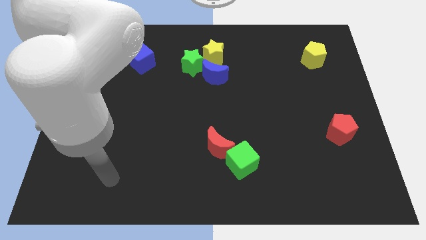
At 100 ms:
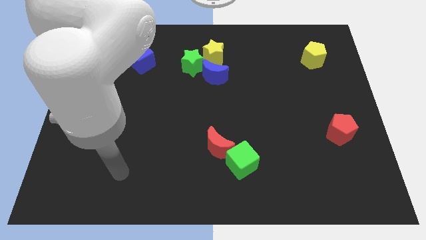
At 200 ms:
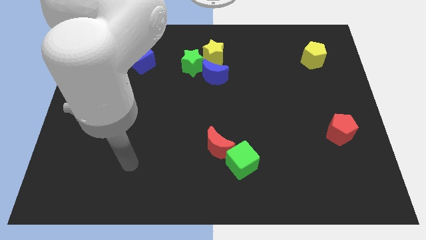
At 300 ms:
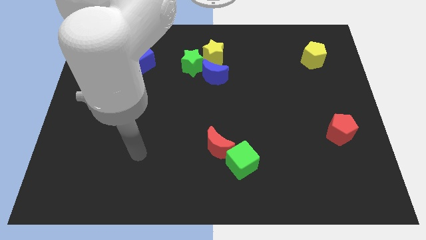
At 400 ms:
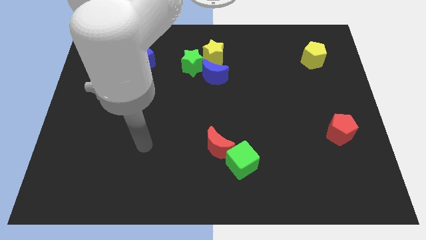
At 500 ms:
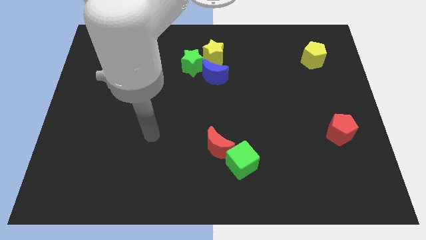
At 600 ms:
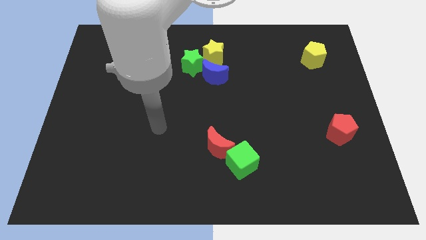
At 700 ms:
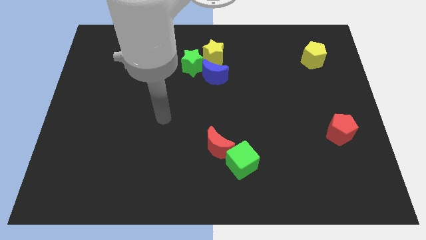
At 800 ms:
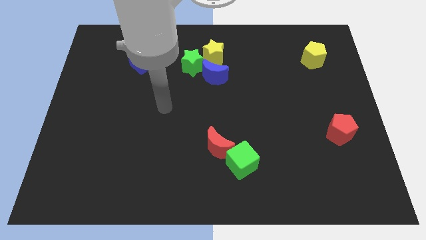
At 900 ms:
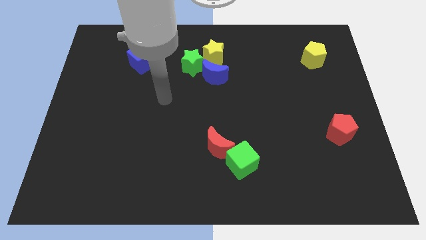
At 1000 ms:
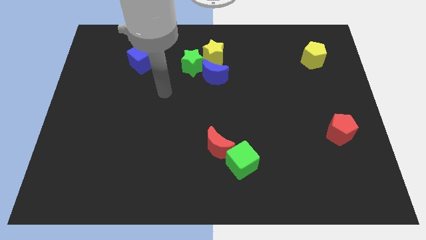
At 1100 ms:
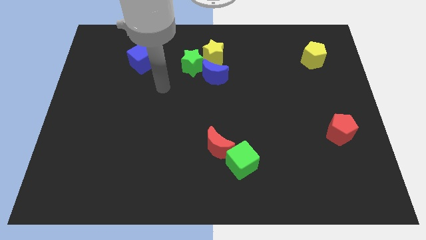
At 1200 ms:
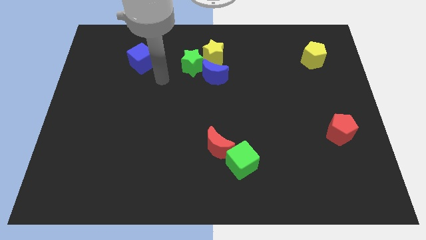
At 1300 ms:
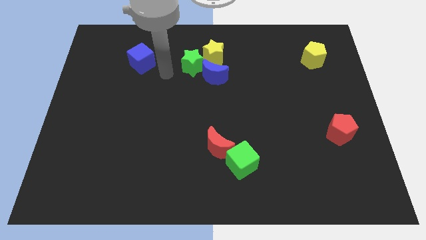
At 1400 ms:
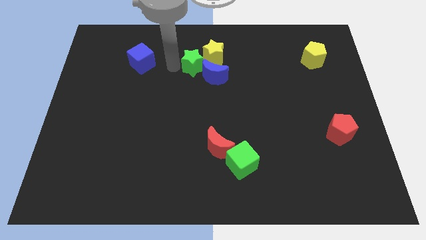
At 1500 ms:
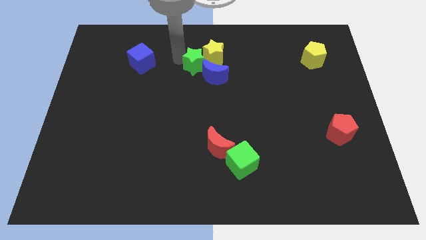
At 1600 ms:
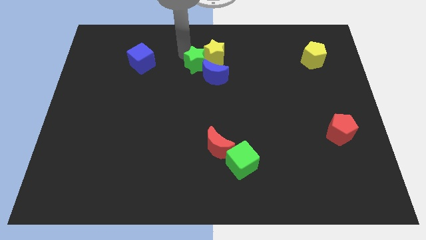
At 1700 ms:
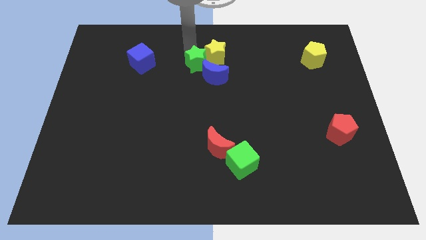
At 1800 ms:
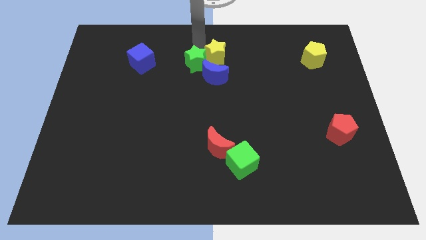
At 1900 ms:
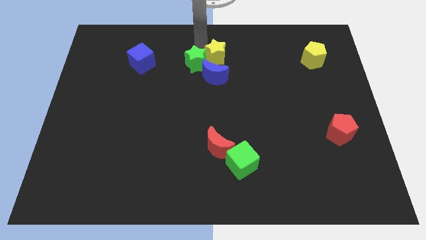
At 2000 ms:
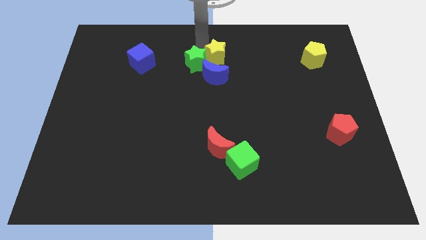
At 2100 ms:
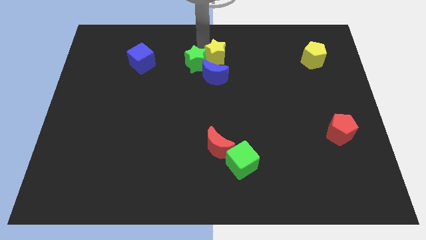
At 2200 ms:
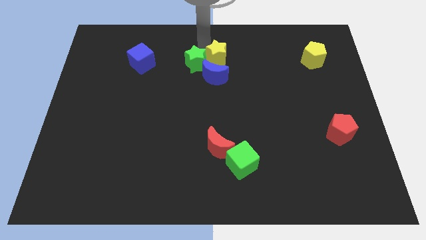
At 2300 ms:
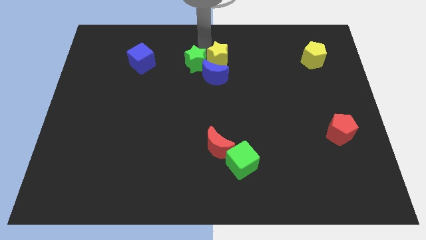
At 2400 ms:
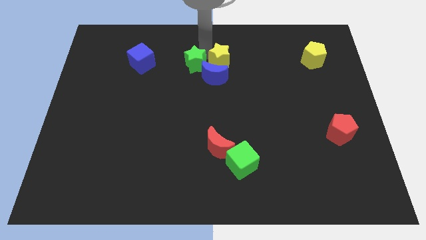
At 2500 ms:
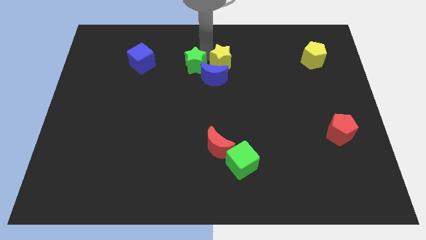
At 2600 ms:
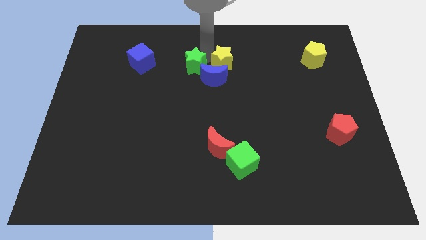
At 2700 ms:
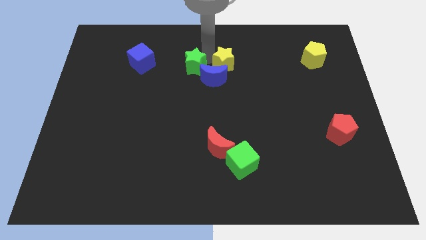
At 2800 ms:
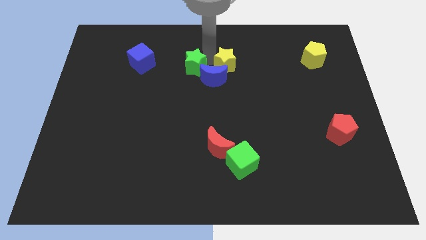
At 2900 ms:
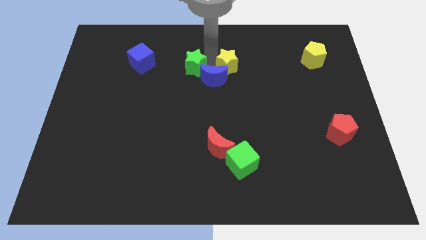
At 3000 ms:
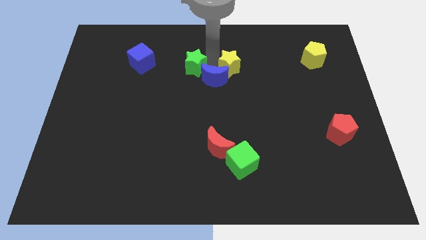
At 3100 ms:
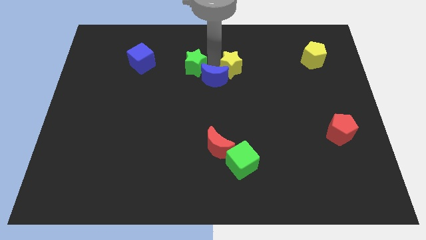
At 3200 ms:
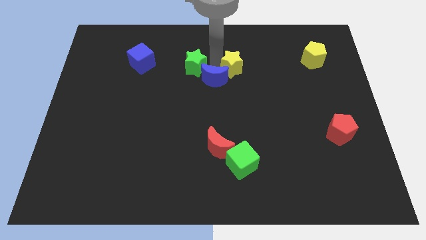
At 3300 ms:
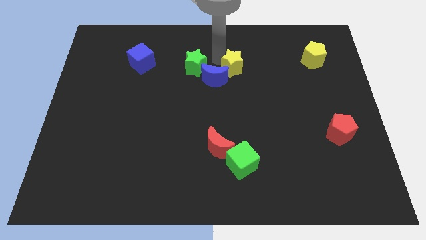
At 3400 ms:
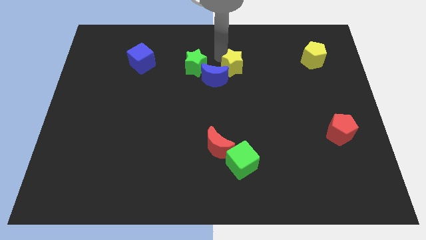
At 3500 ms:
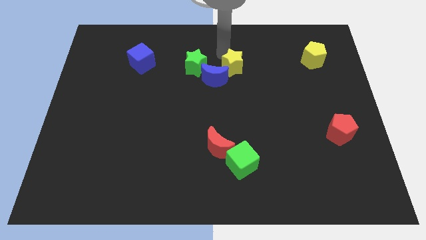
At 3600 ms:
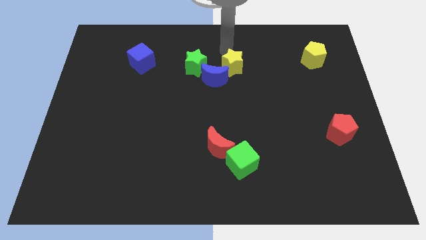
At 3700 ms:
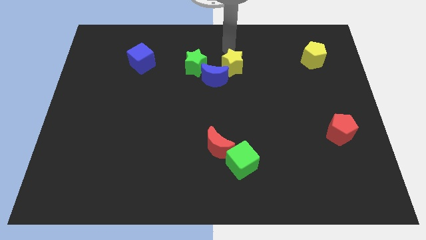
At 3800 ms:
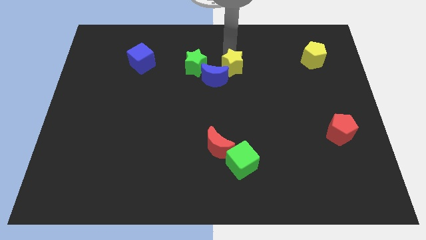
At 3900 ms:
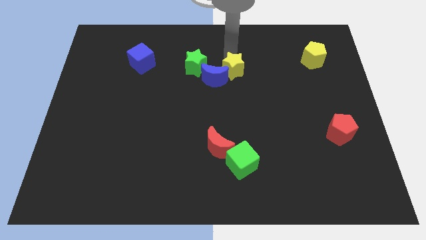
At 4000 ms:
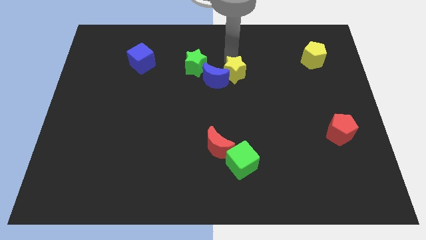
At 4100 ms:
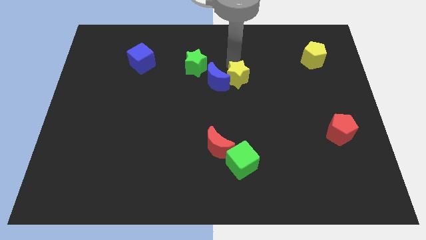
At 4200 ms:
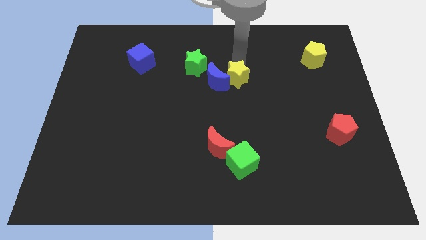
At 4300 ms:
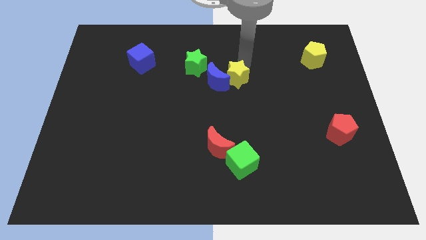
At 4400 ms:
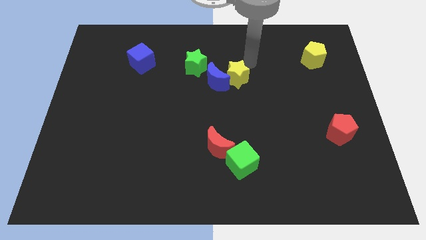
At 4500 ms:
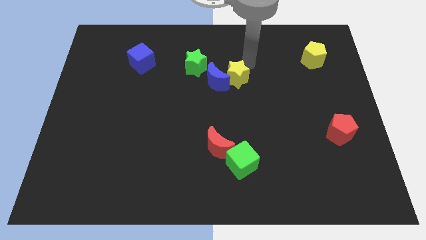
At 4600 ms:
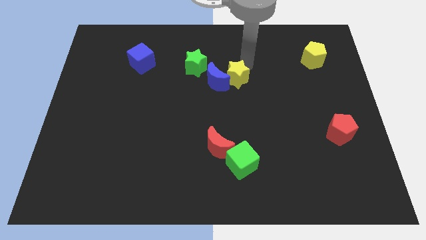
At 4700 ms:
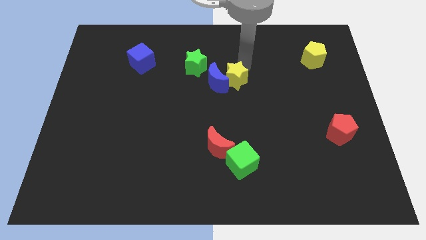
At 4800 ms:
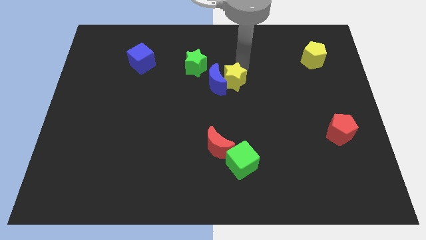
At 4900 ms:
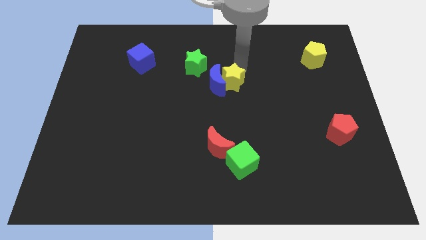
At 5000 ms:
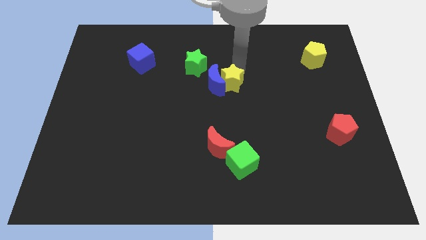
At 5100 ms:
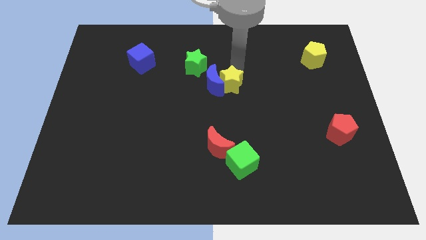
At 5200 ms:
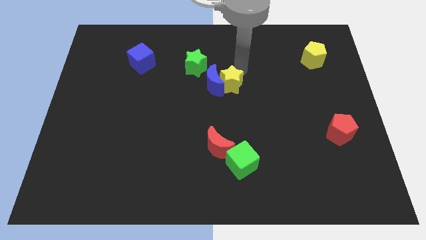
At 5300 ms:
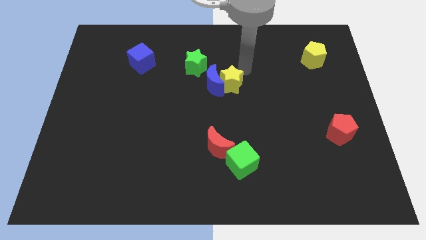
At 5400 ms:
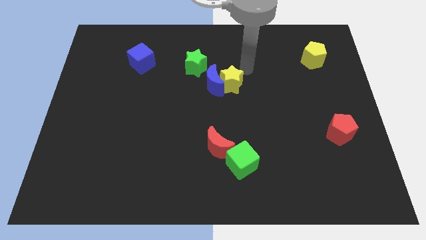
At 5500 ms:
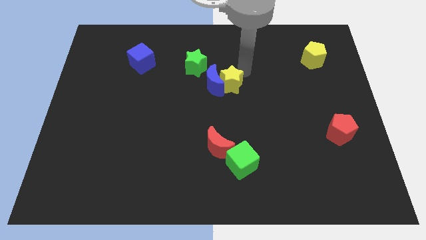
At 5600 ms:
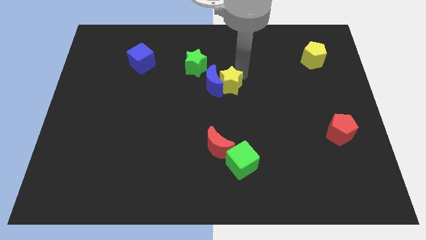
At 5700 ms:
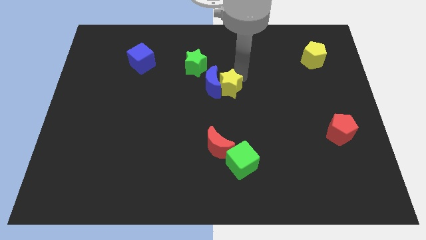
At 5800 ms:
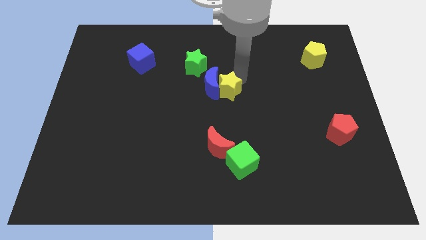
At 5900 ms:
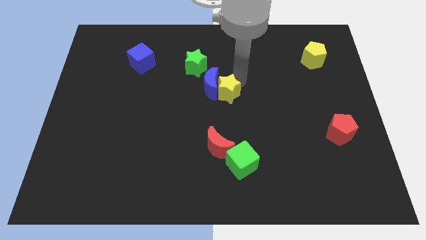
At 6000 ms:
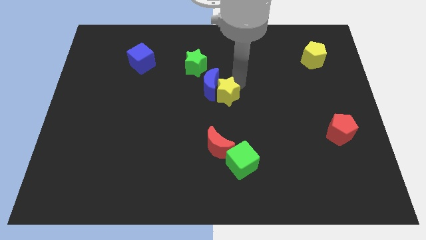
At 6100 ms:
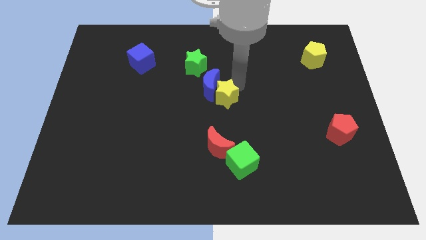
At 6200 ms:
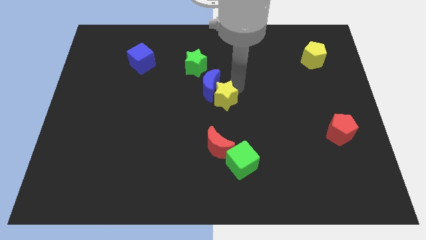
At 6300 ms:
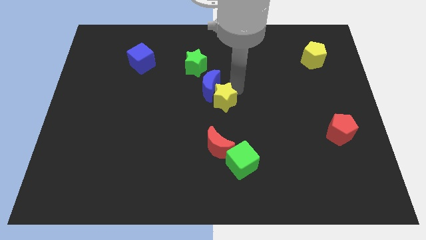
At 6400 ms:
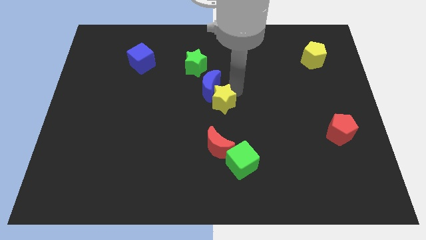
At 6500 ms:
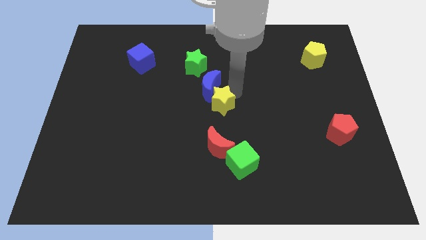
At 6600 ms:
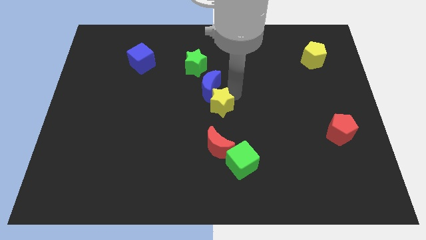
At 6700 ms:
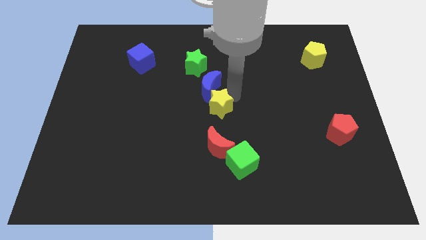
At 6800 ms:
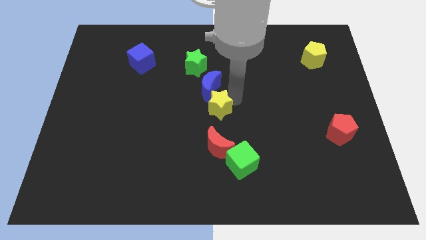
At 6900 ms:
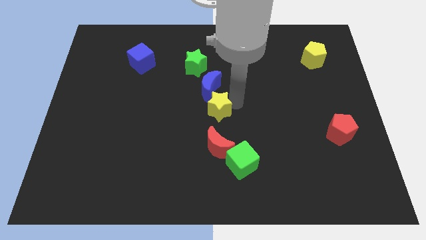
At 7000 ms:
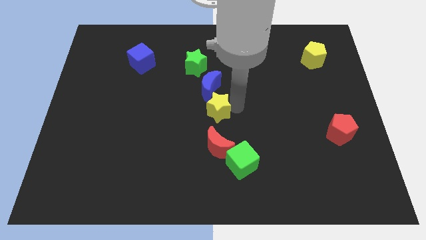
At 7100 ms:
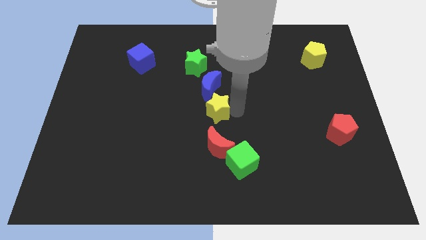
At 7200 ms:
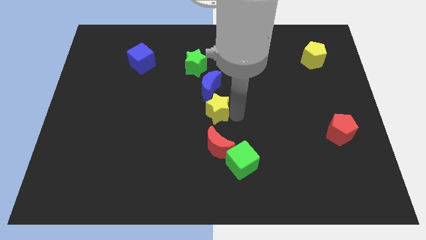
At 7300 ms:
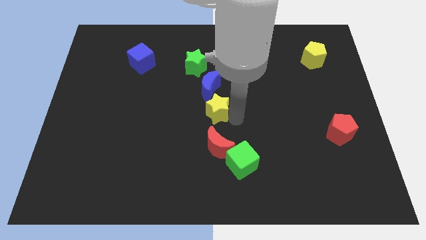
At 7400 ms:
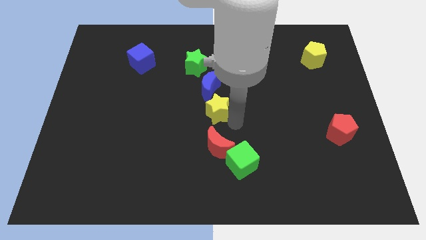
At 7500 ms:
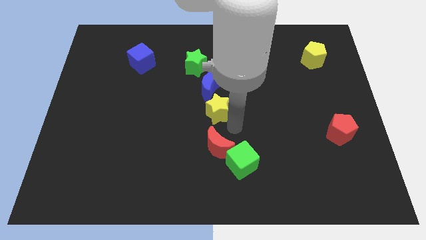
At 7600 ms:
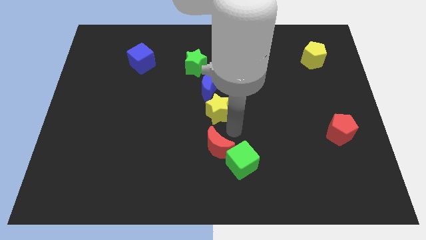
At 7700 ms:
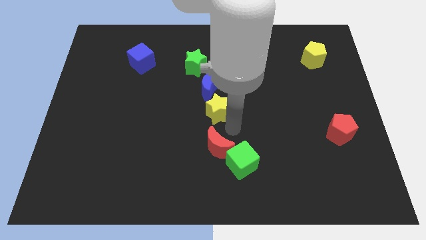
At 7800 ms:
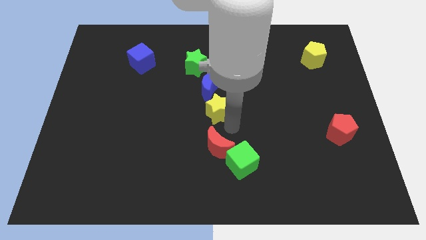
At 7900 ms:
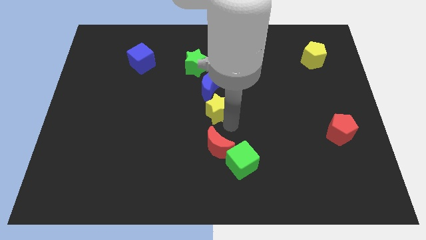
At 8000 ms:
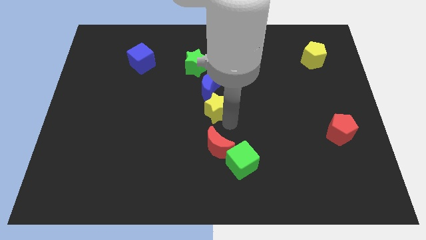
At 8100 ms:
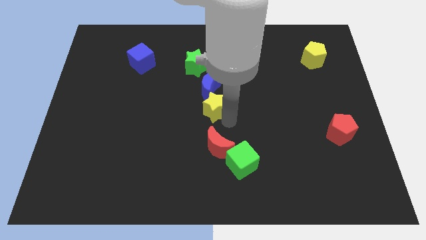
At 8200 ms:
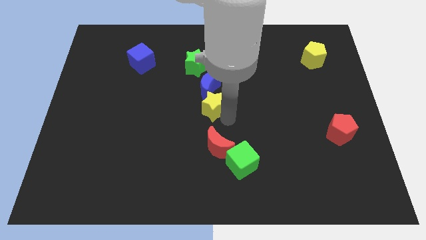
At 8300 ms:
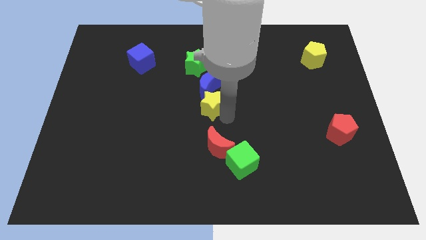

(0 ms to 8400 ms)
put the yellow star to the bottom side of the green star
